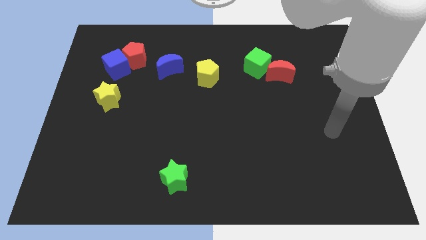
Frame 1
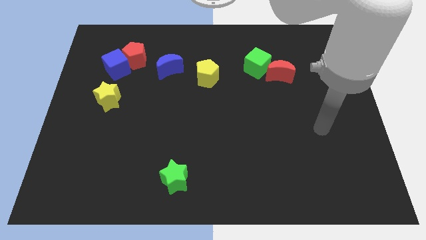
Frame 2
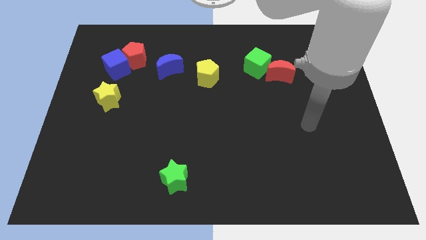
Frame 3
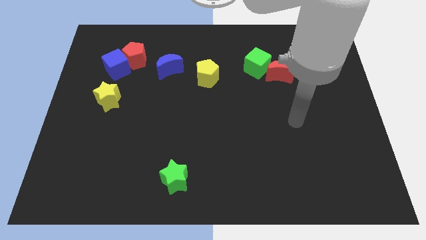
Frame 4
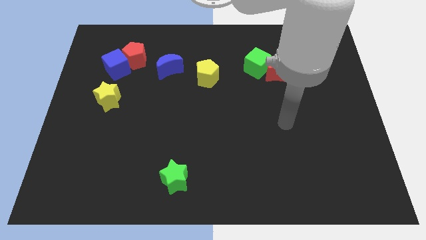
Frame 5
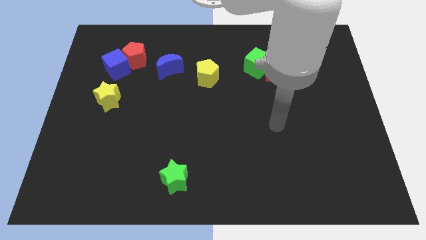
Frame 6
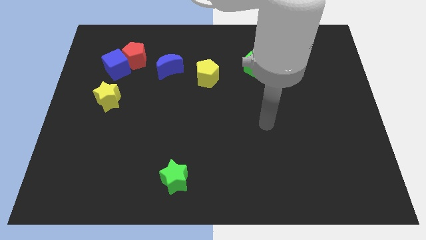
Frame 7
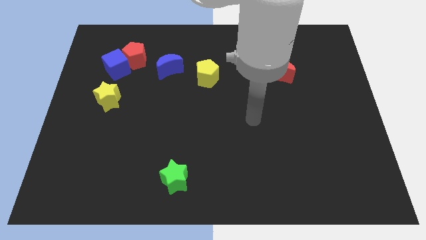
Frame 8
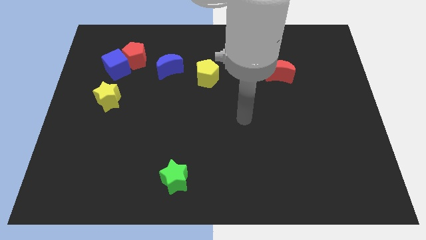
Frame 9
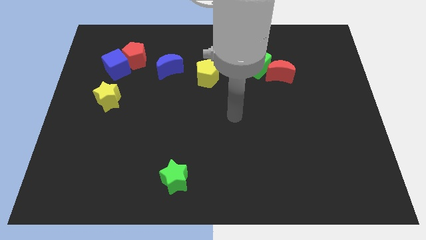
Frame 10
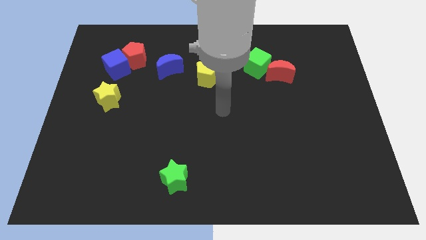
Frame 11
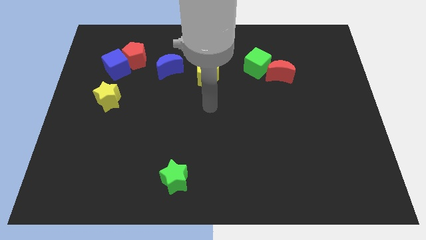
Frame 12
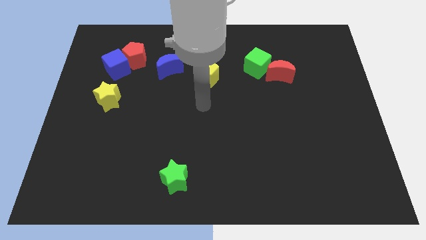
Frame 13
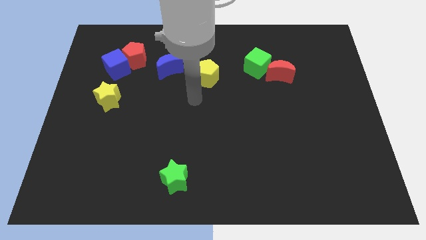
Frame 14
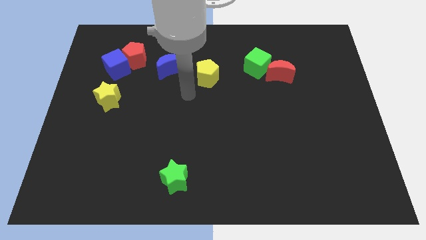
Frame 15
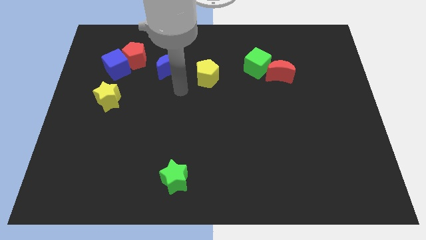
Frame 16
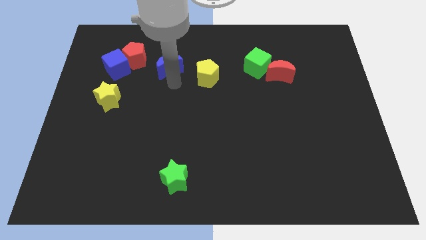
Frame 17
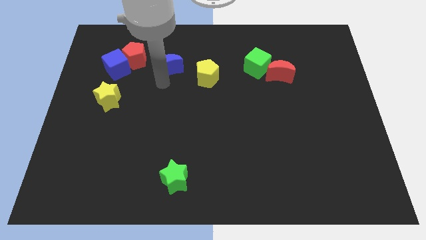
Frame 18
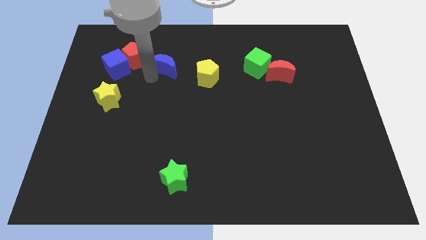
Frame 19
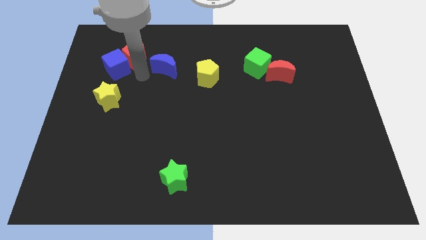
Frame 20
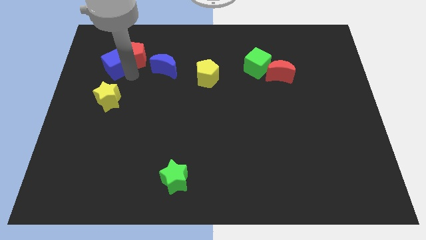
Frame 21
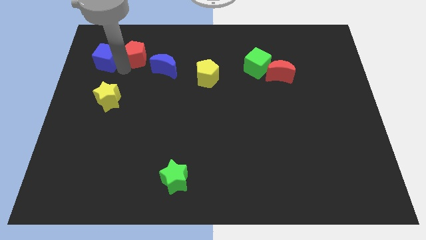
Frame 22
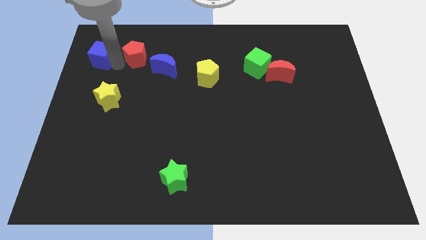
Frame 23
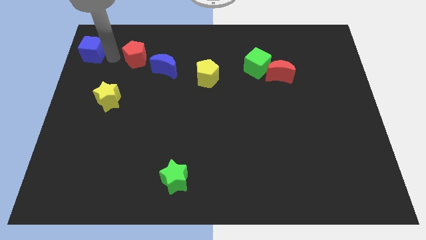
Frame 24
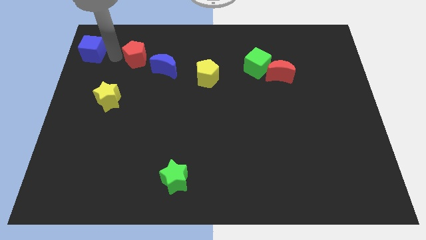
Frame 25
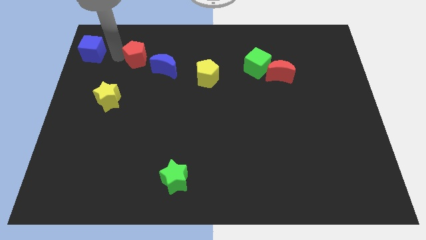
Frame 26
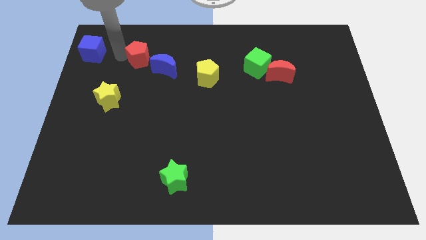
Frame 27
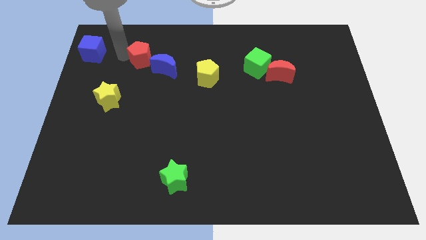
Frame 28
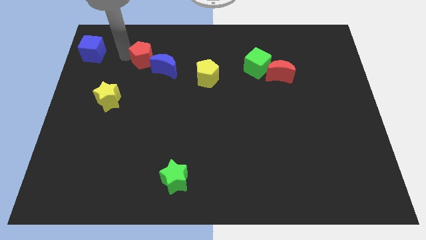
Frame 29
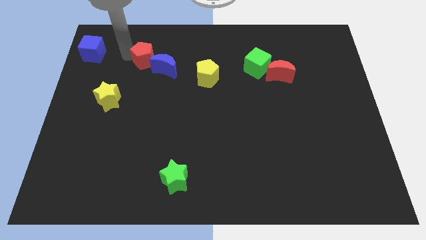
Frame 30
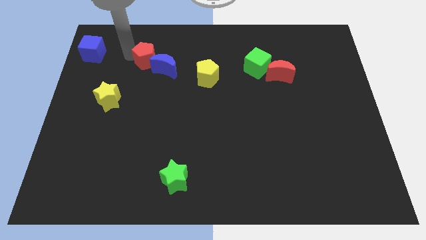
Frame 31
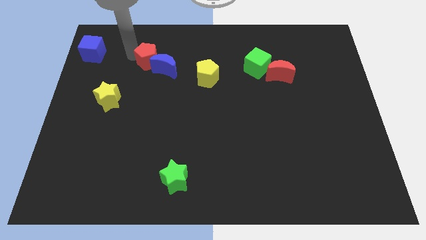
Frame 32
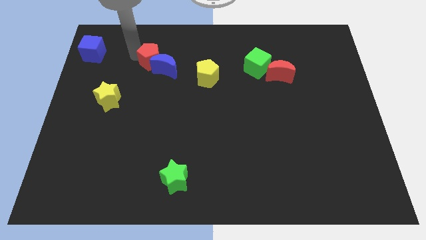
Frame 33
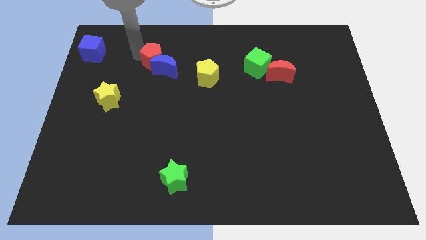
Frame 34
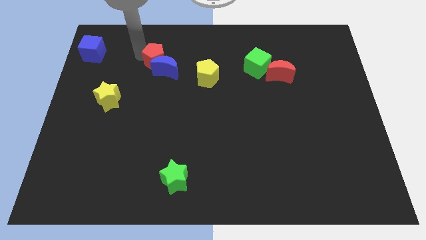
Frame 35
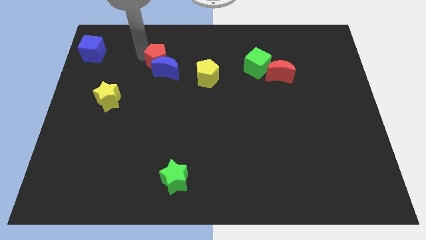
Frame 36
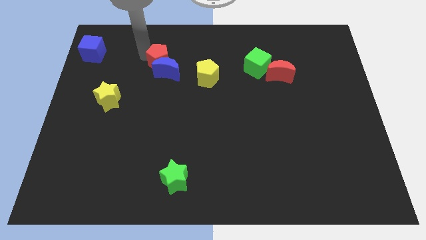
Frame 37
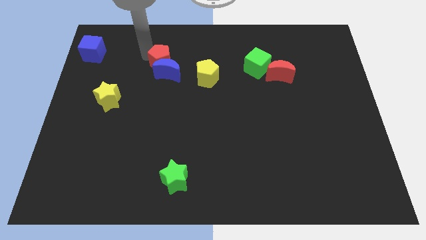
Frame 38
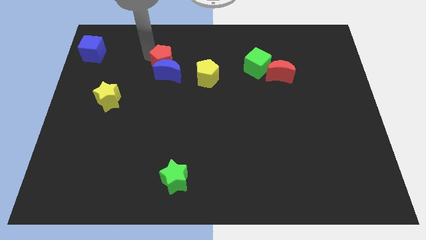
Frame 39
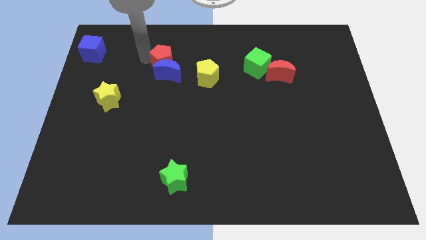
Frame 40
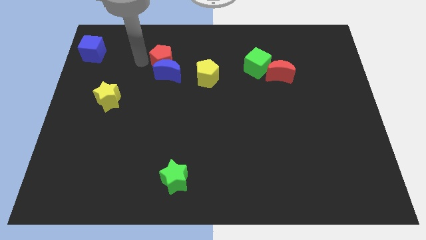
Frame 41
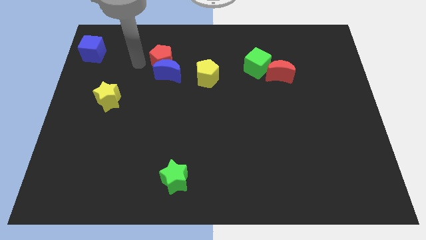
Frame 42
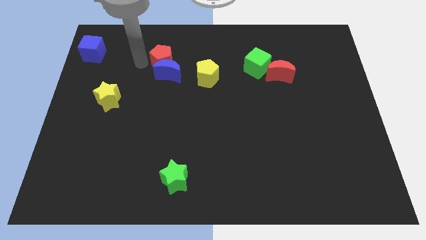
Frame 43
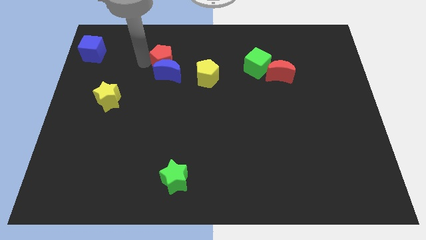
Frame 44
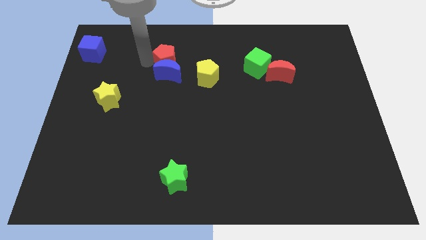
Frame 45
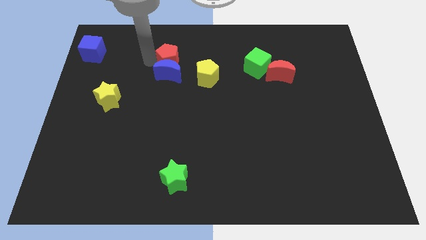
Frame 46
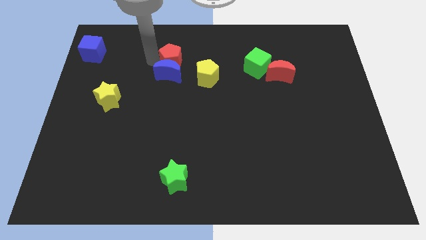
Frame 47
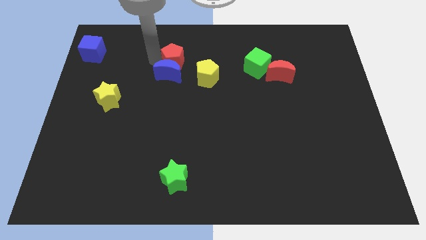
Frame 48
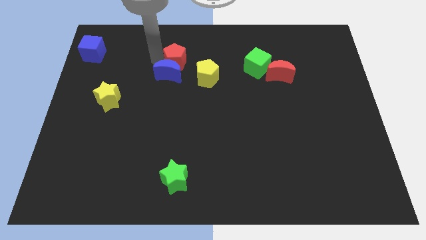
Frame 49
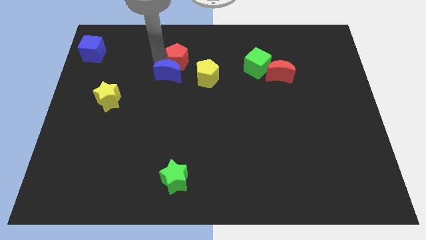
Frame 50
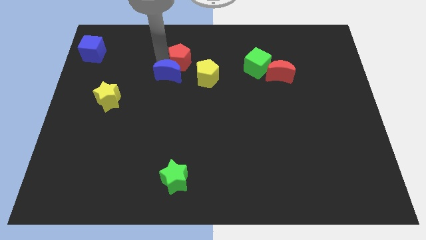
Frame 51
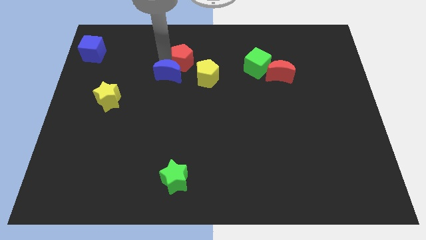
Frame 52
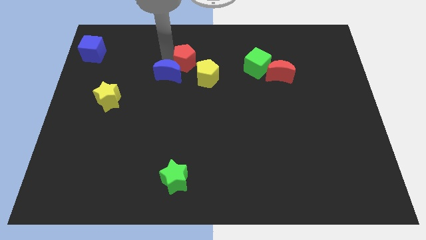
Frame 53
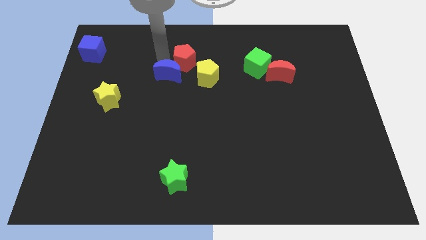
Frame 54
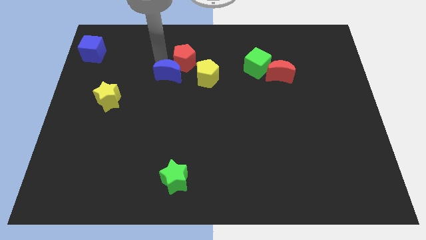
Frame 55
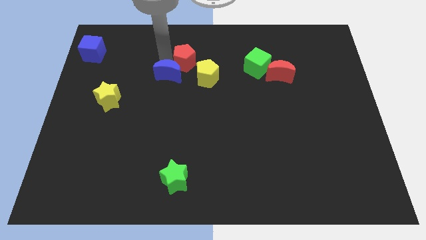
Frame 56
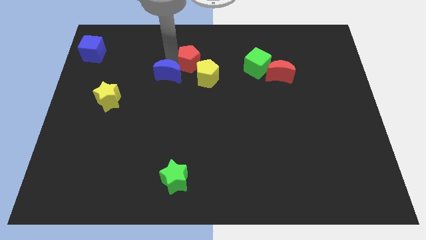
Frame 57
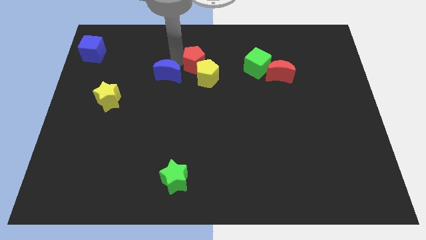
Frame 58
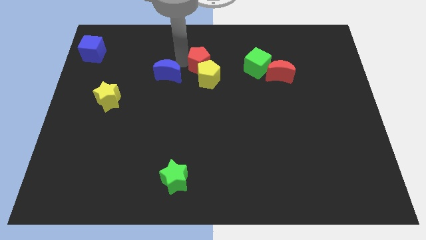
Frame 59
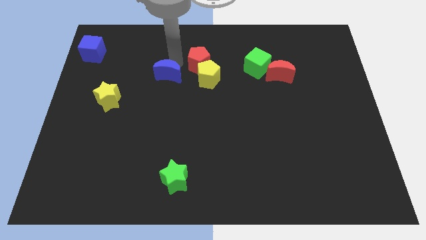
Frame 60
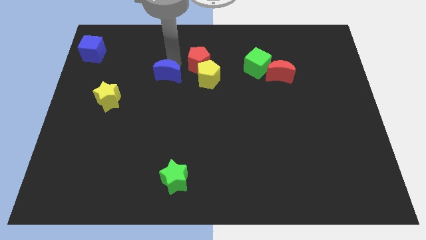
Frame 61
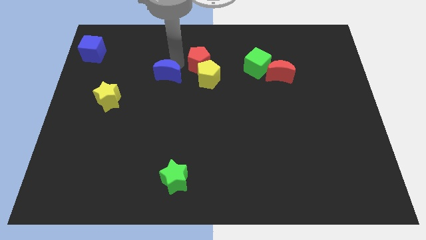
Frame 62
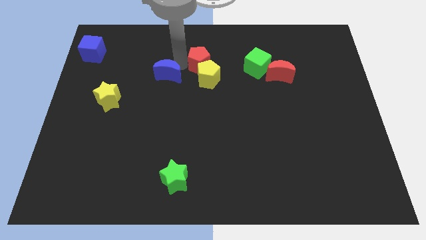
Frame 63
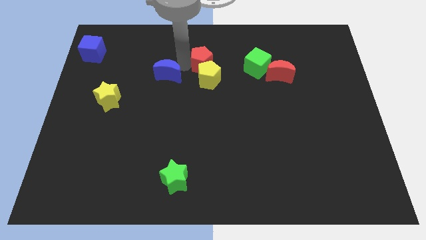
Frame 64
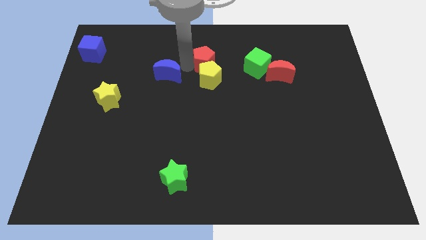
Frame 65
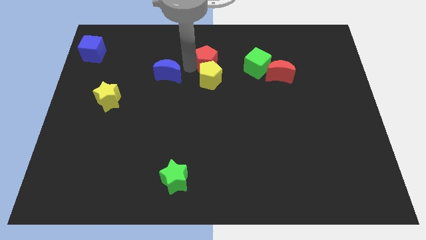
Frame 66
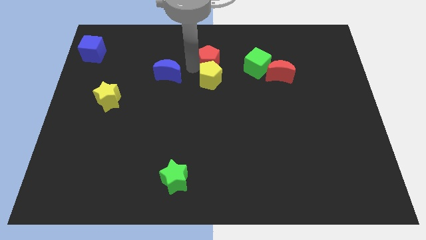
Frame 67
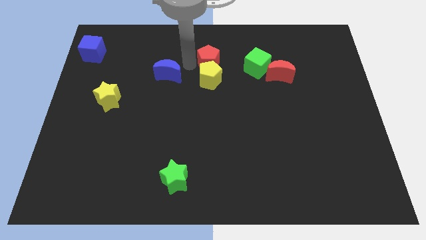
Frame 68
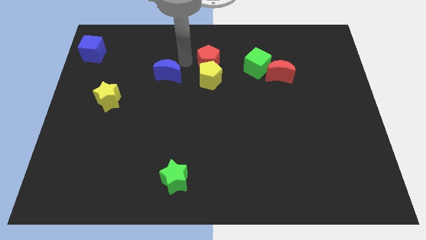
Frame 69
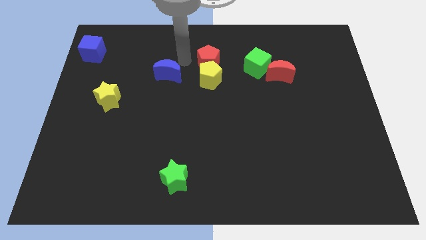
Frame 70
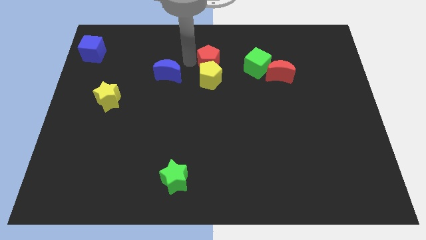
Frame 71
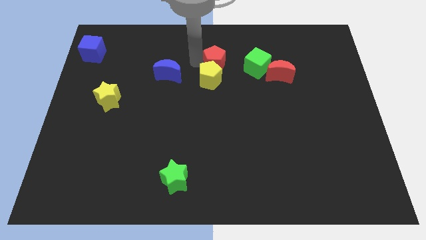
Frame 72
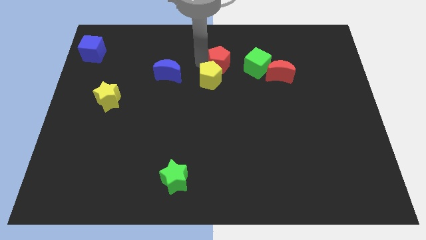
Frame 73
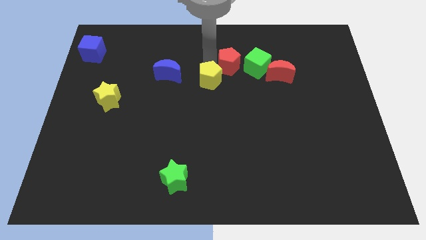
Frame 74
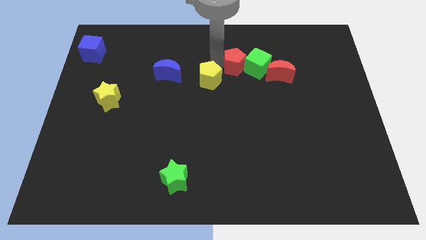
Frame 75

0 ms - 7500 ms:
move the red pentagon towards the green cube
